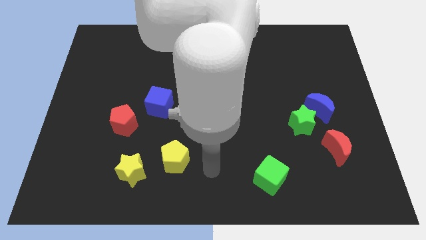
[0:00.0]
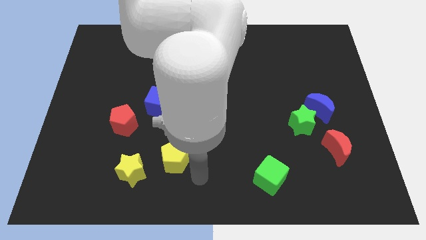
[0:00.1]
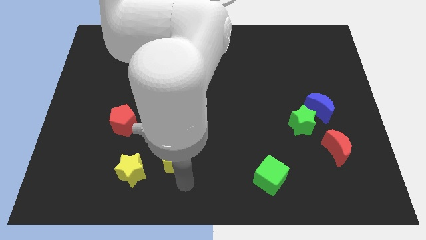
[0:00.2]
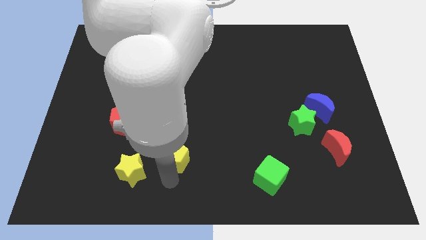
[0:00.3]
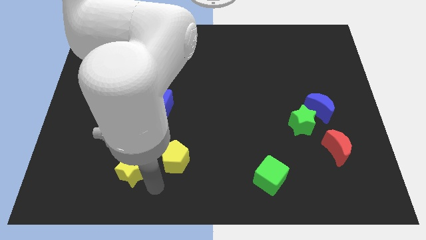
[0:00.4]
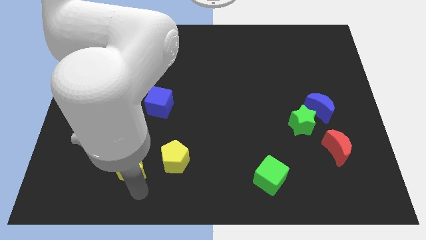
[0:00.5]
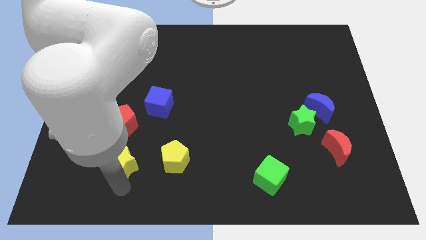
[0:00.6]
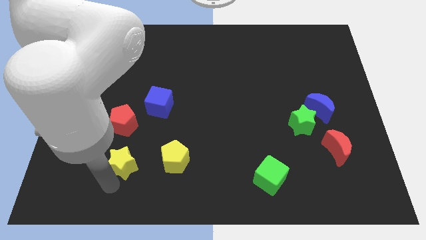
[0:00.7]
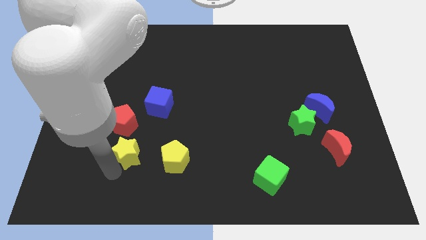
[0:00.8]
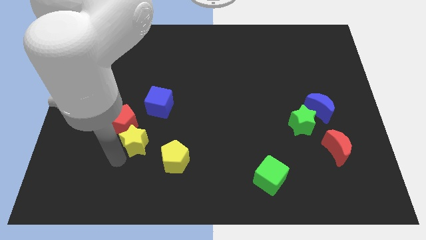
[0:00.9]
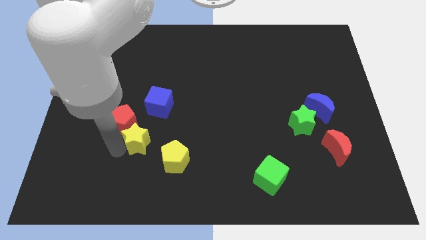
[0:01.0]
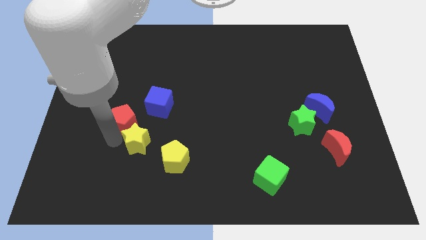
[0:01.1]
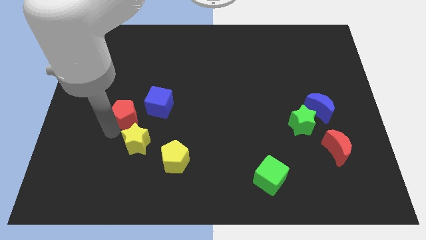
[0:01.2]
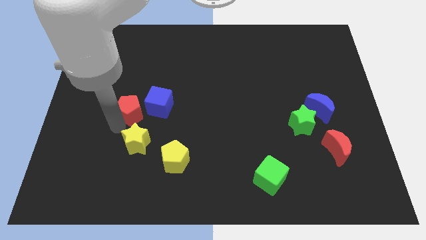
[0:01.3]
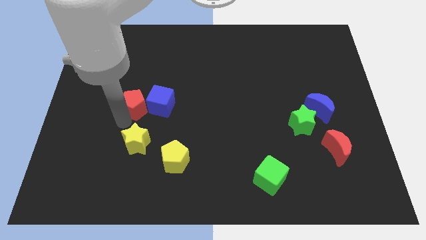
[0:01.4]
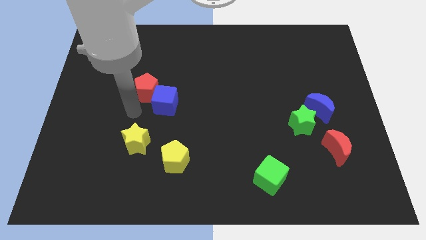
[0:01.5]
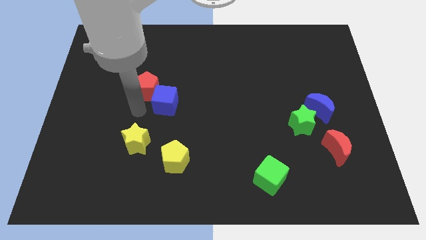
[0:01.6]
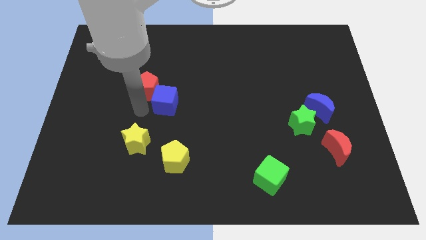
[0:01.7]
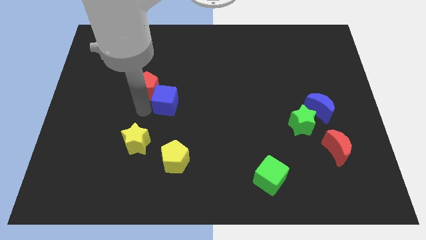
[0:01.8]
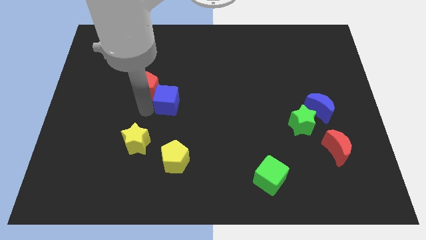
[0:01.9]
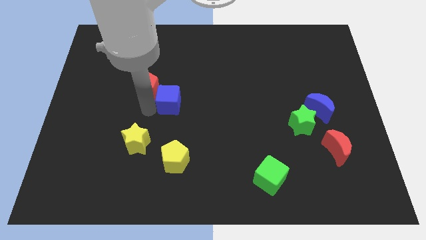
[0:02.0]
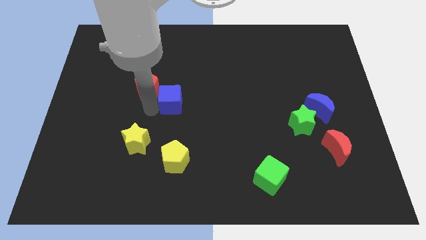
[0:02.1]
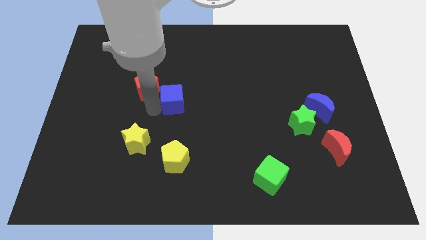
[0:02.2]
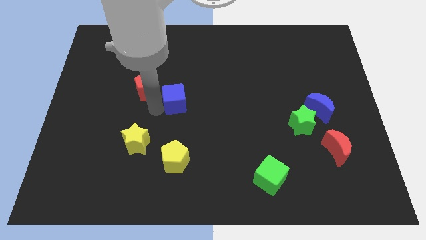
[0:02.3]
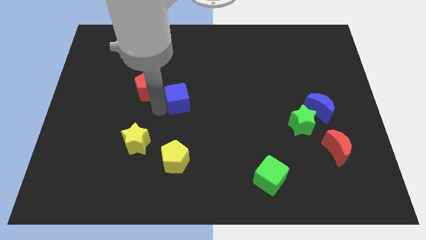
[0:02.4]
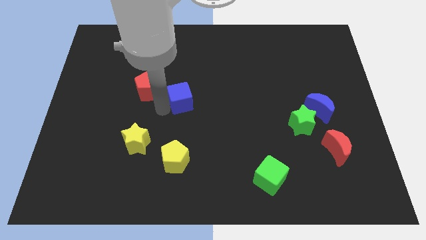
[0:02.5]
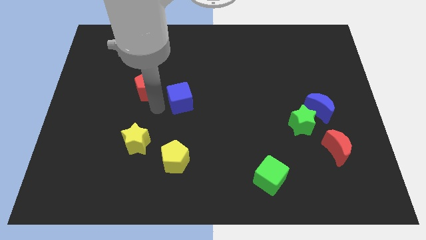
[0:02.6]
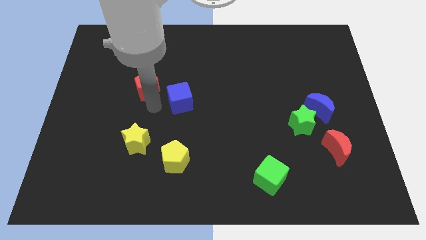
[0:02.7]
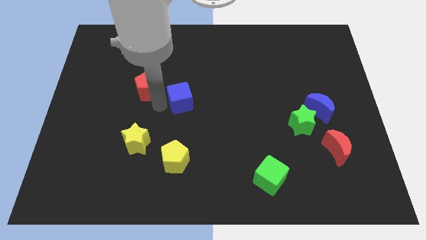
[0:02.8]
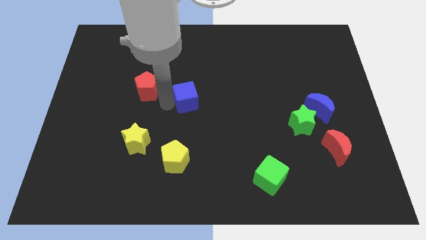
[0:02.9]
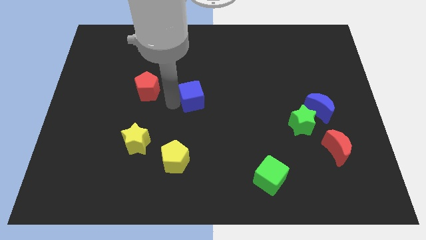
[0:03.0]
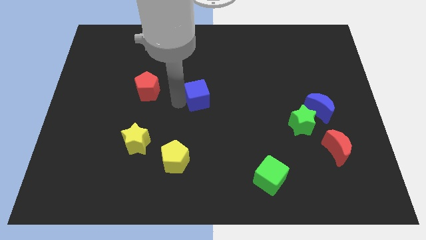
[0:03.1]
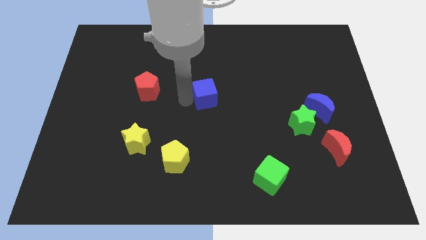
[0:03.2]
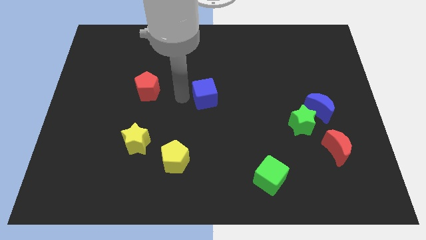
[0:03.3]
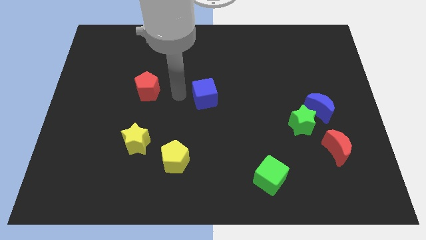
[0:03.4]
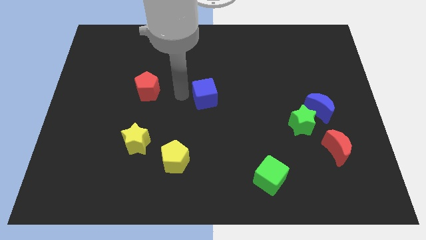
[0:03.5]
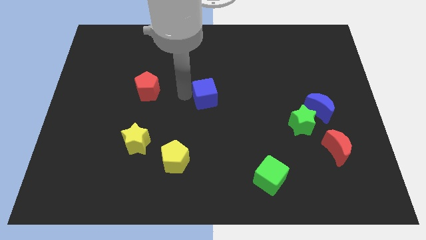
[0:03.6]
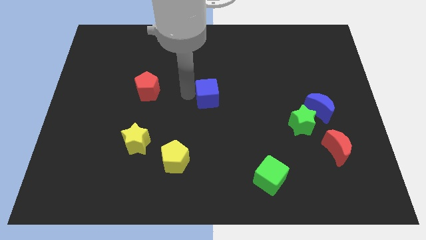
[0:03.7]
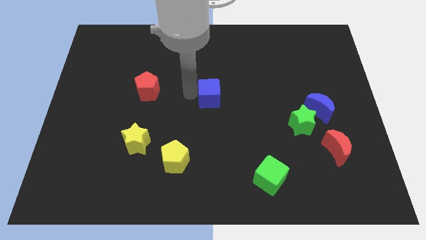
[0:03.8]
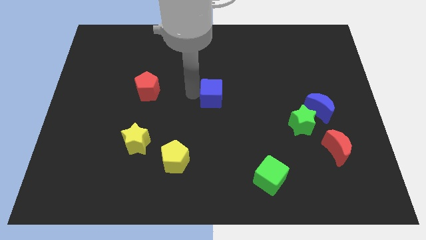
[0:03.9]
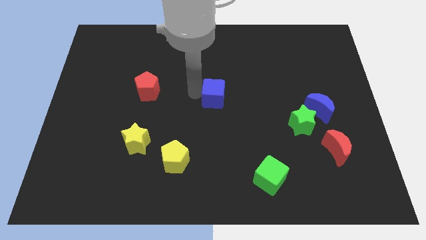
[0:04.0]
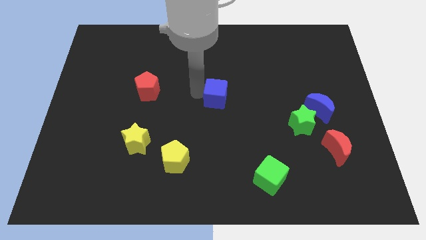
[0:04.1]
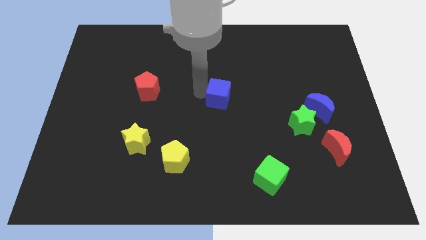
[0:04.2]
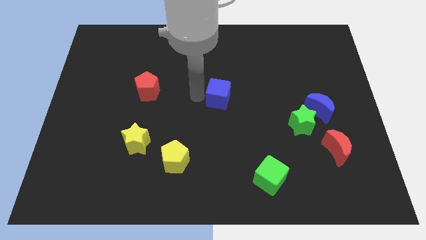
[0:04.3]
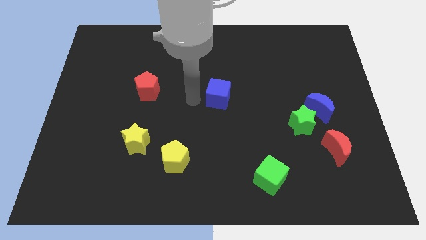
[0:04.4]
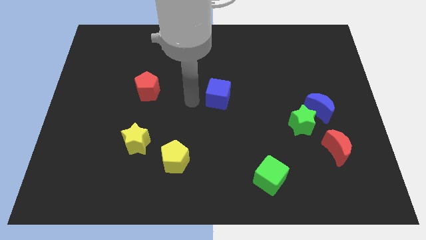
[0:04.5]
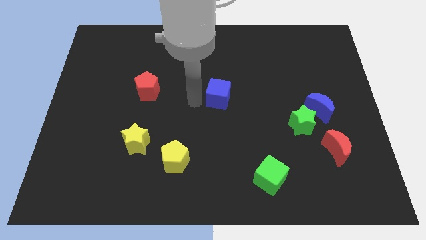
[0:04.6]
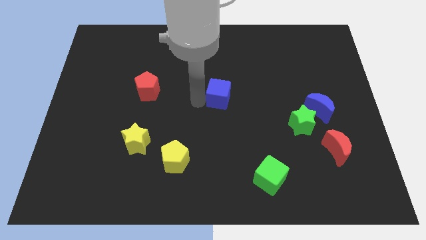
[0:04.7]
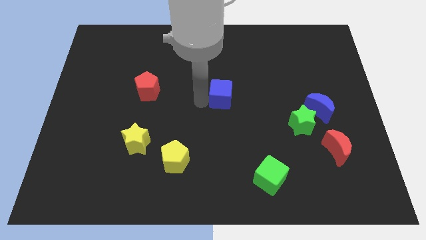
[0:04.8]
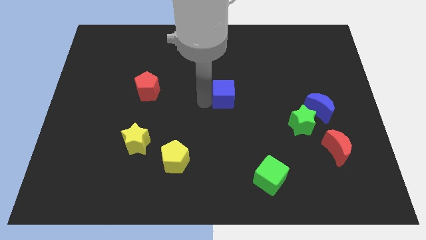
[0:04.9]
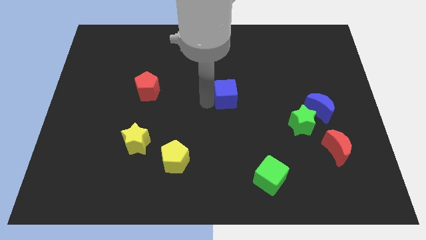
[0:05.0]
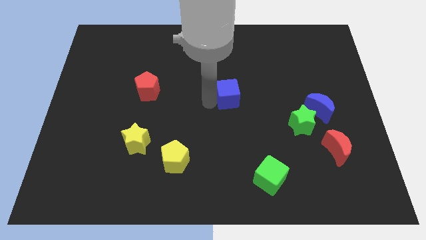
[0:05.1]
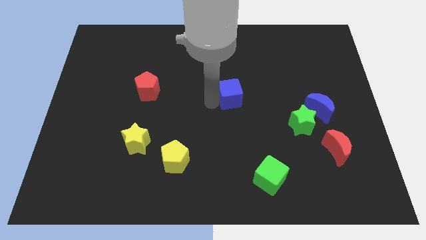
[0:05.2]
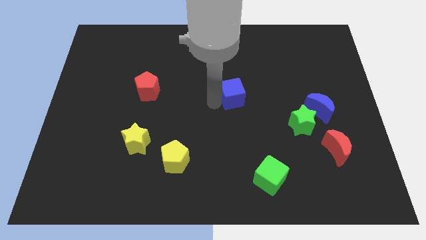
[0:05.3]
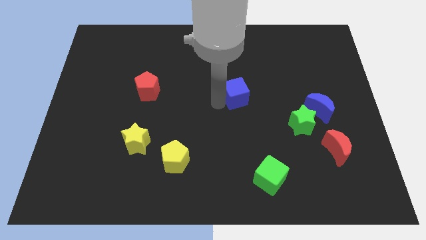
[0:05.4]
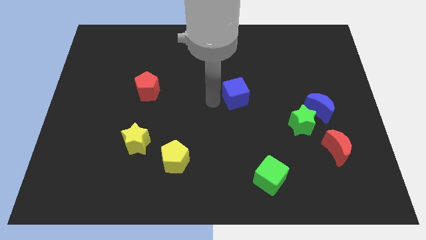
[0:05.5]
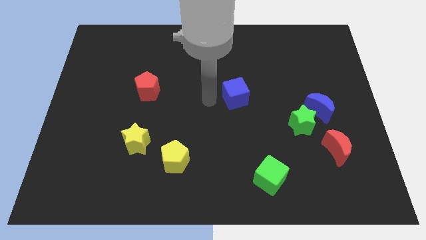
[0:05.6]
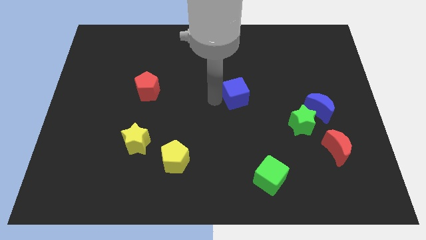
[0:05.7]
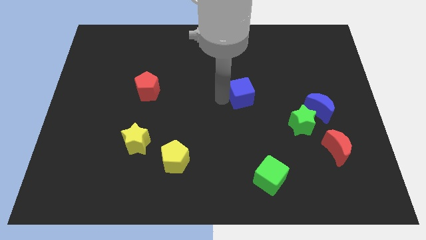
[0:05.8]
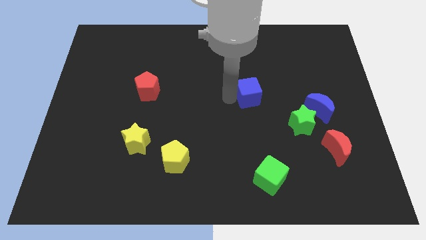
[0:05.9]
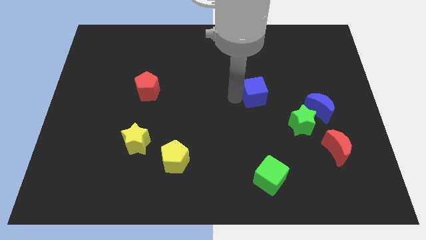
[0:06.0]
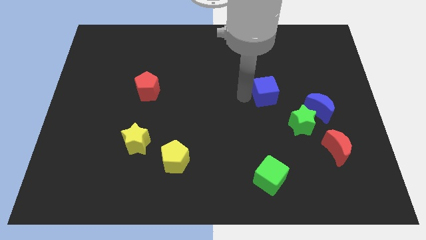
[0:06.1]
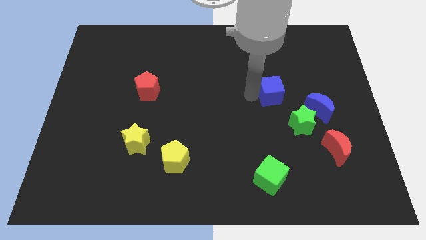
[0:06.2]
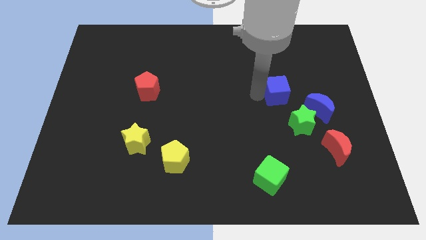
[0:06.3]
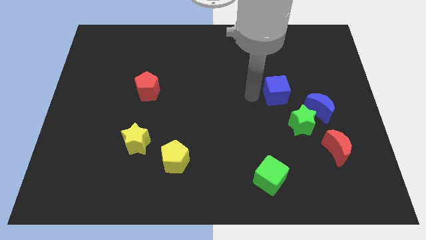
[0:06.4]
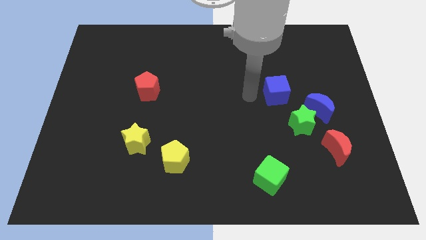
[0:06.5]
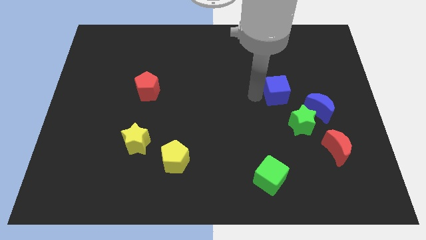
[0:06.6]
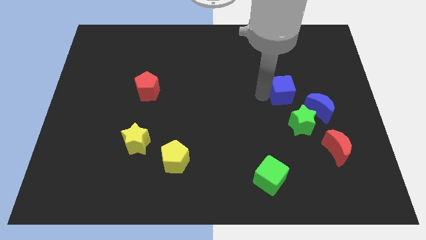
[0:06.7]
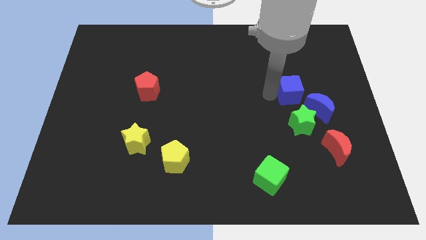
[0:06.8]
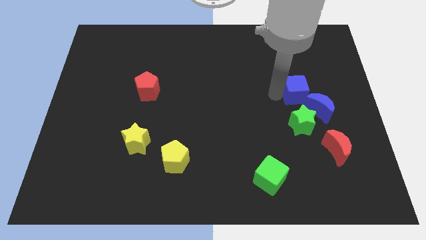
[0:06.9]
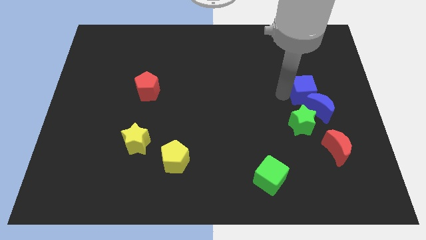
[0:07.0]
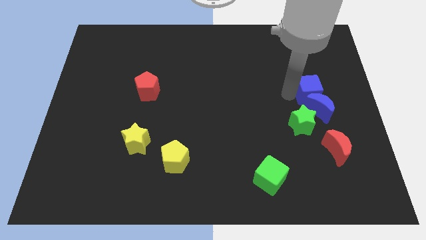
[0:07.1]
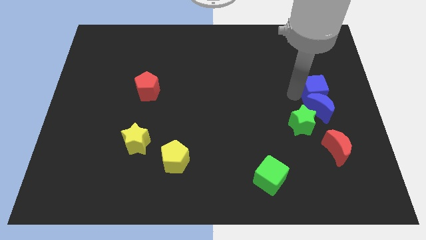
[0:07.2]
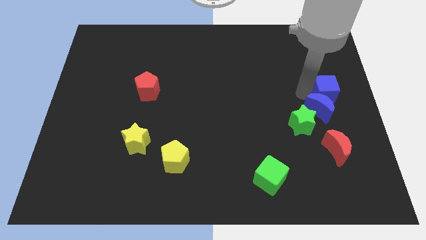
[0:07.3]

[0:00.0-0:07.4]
push the blue cube to the center right

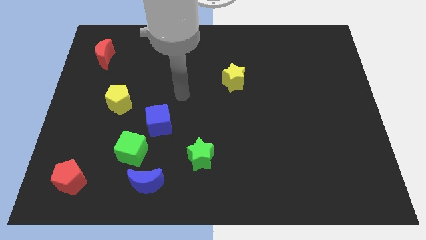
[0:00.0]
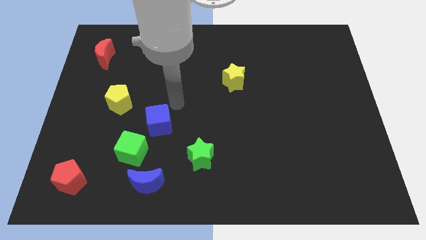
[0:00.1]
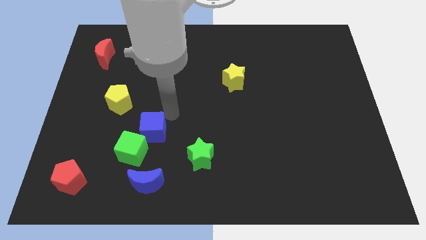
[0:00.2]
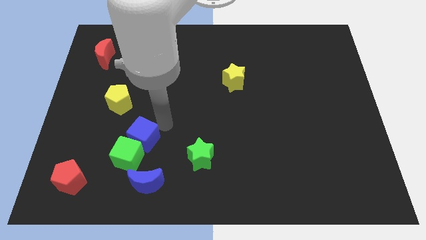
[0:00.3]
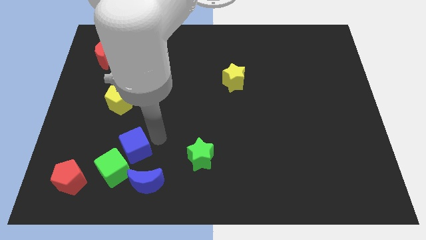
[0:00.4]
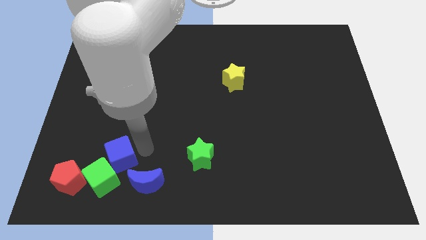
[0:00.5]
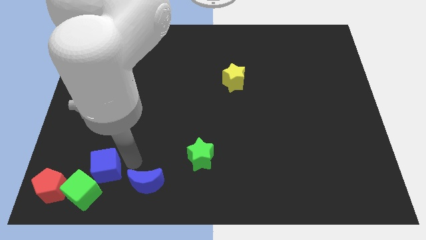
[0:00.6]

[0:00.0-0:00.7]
move the green cube to the bottom left of the board
